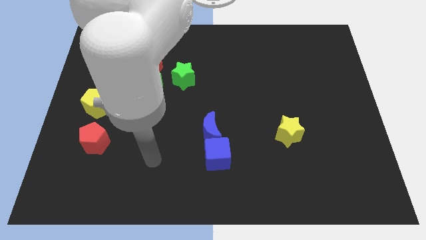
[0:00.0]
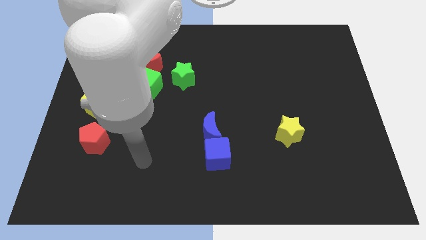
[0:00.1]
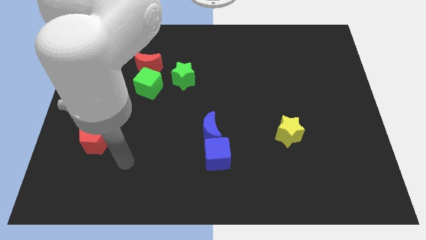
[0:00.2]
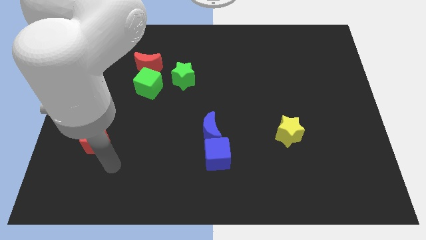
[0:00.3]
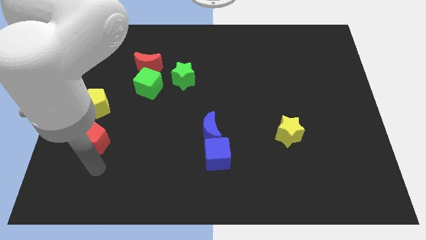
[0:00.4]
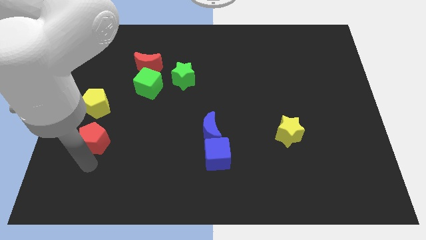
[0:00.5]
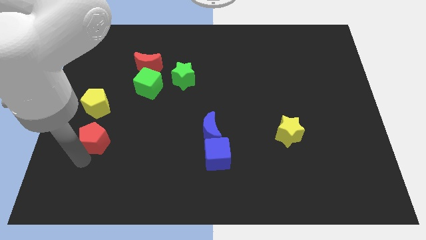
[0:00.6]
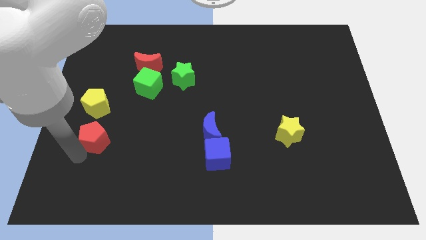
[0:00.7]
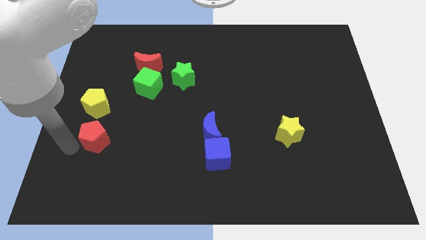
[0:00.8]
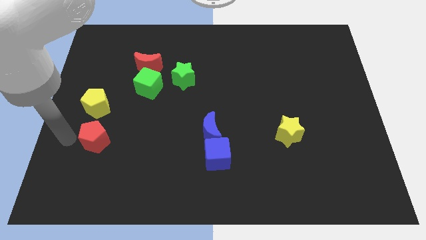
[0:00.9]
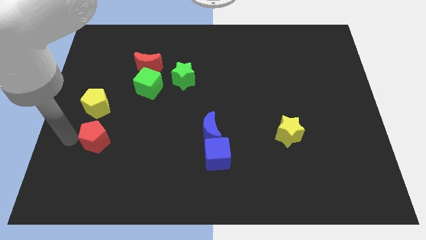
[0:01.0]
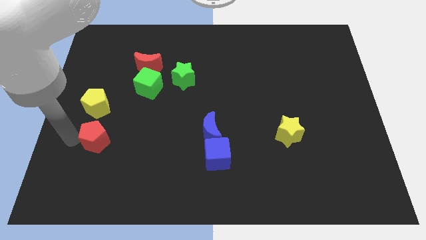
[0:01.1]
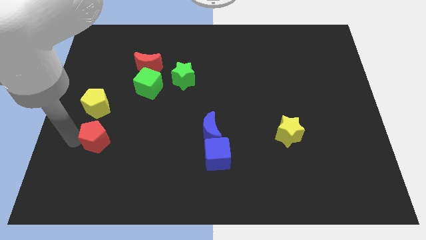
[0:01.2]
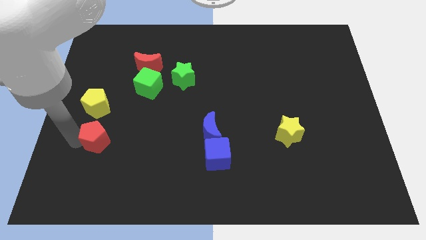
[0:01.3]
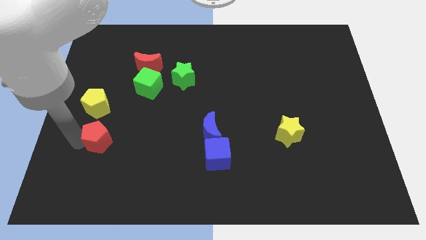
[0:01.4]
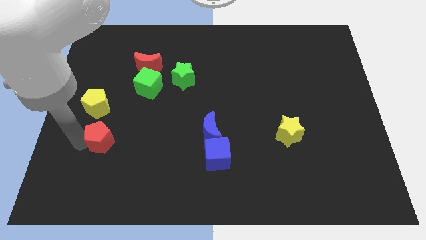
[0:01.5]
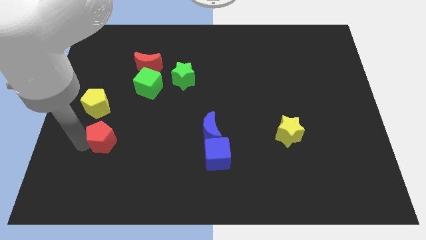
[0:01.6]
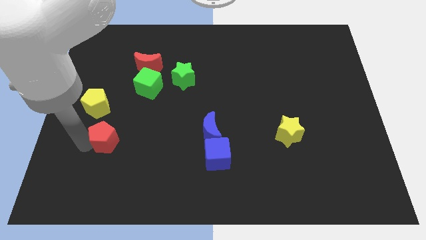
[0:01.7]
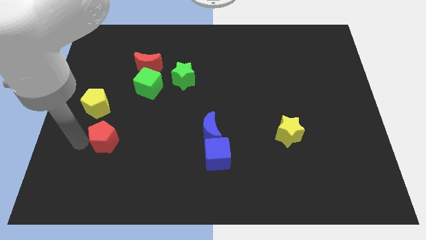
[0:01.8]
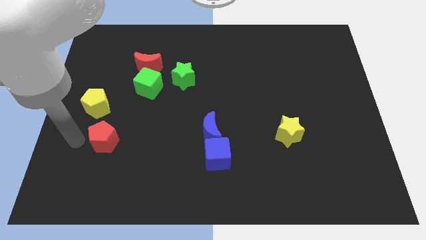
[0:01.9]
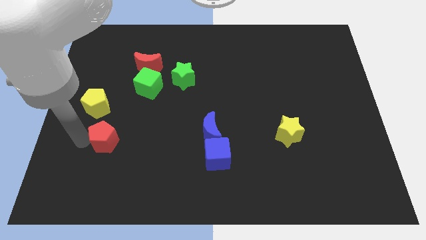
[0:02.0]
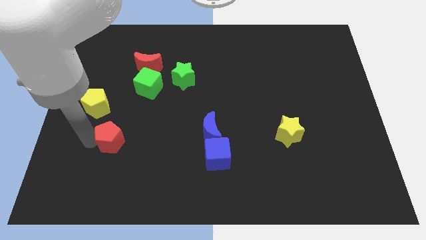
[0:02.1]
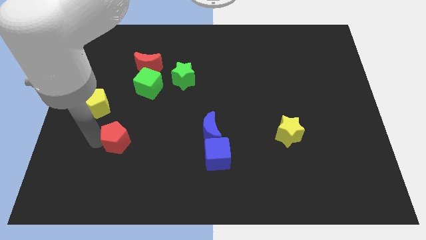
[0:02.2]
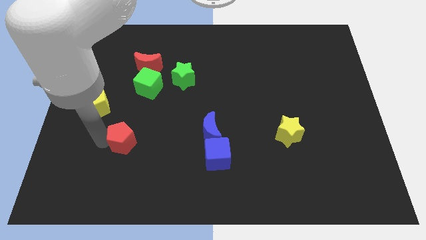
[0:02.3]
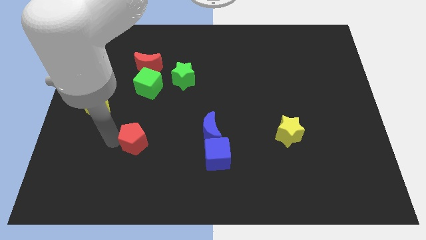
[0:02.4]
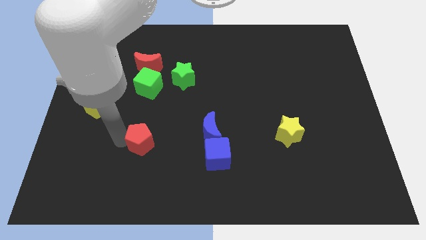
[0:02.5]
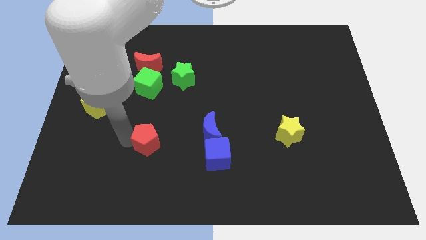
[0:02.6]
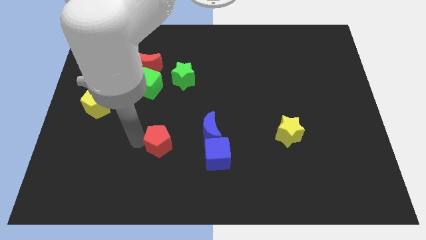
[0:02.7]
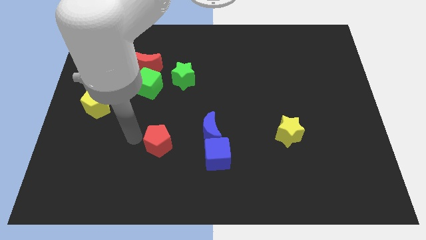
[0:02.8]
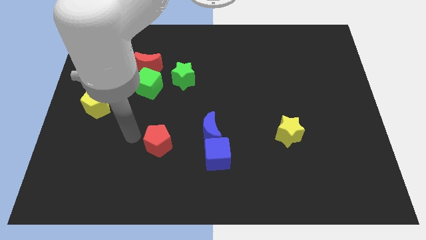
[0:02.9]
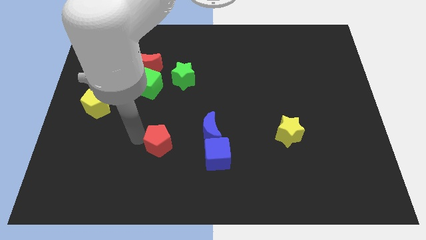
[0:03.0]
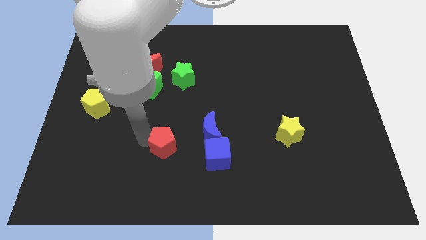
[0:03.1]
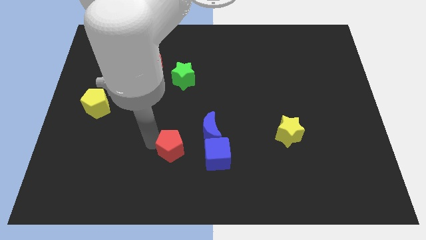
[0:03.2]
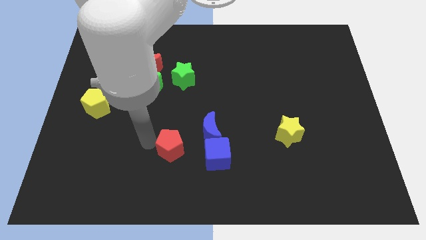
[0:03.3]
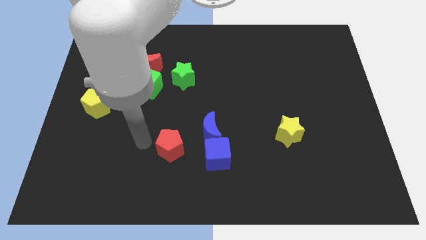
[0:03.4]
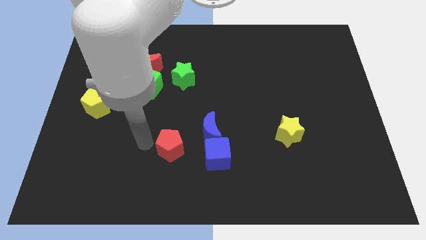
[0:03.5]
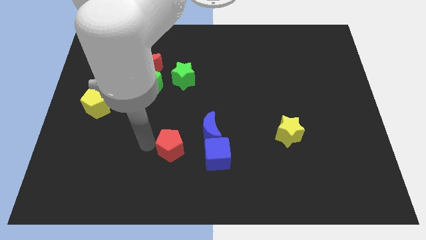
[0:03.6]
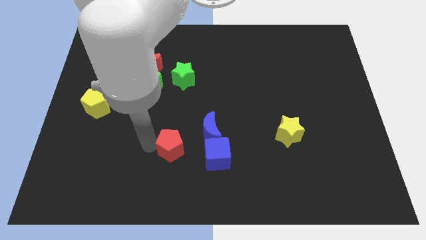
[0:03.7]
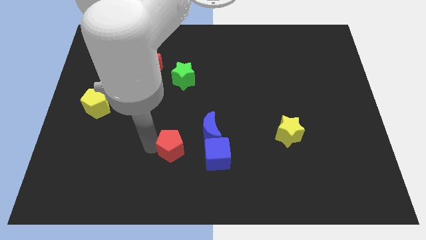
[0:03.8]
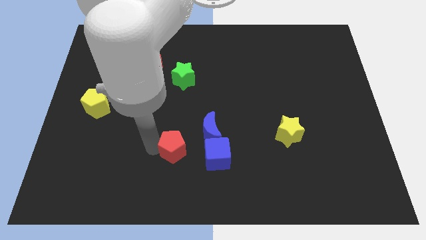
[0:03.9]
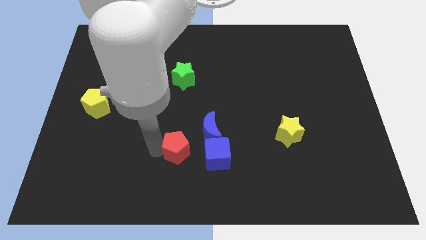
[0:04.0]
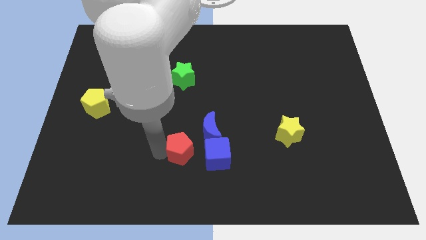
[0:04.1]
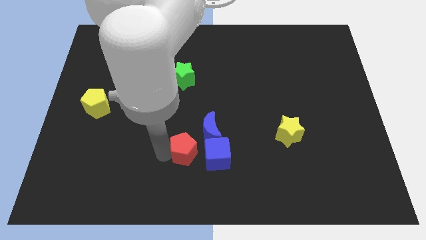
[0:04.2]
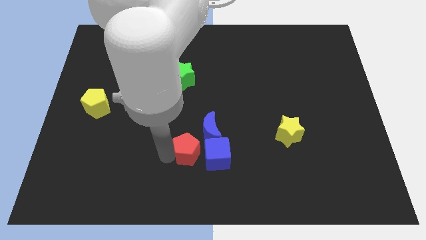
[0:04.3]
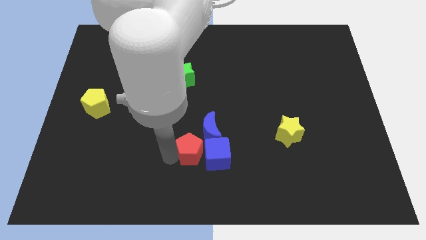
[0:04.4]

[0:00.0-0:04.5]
put the red pentagon next to the blue cube

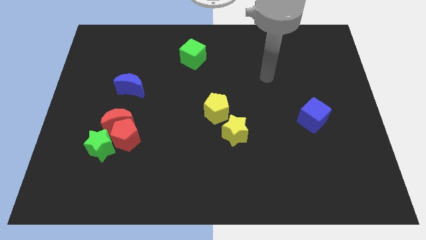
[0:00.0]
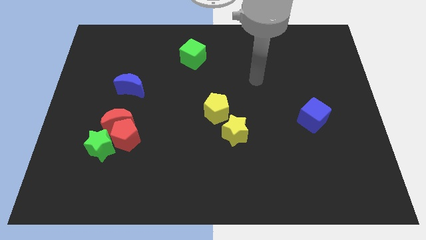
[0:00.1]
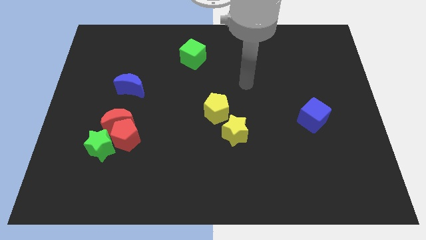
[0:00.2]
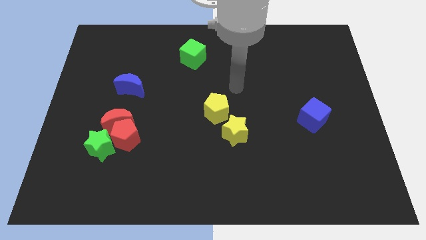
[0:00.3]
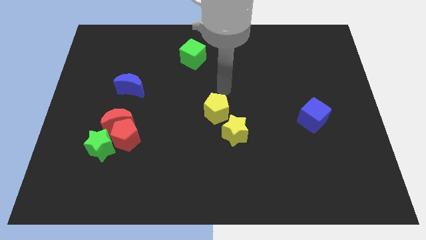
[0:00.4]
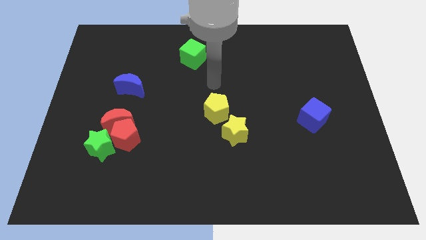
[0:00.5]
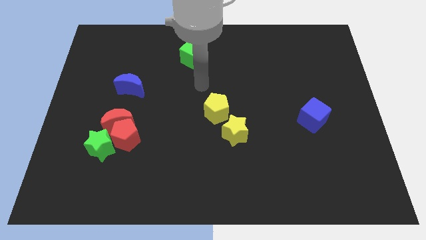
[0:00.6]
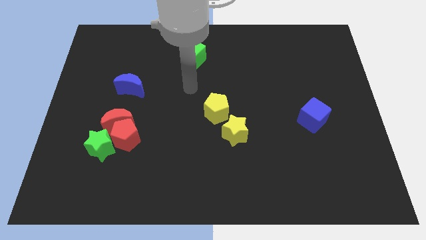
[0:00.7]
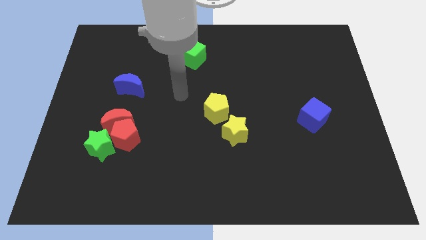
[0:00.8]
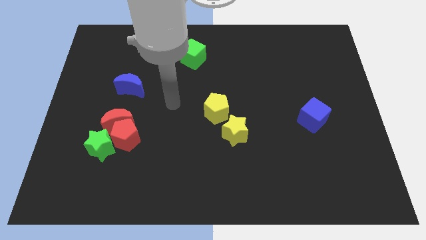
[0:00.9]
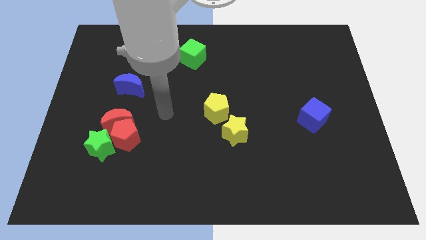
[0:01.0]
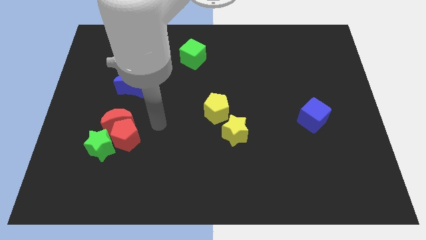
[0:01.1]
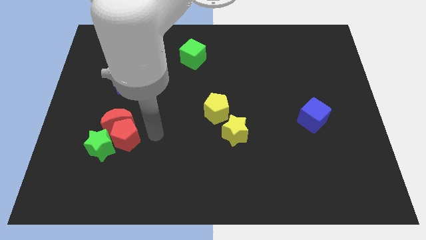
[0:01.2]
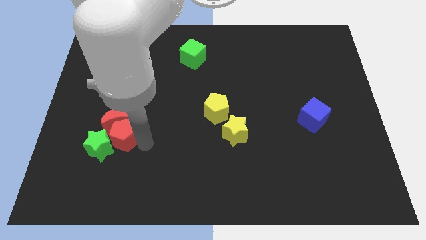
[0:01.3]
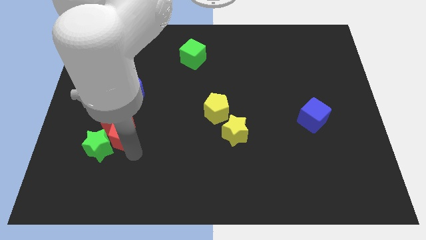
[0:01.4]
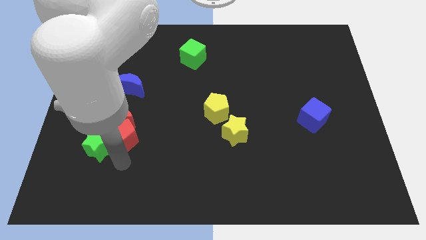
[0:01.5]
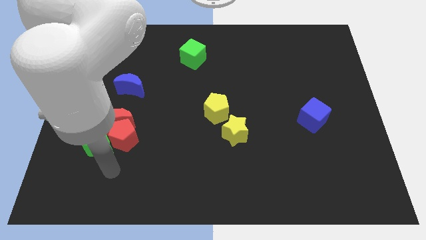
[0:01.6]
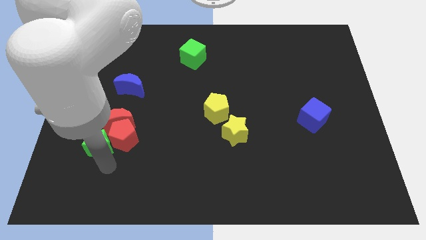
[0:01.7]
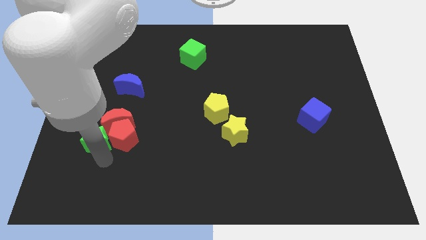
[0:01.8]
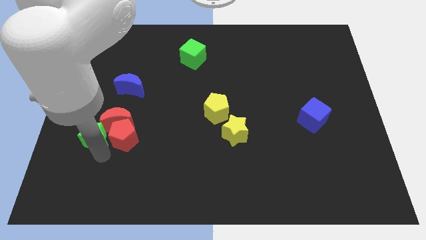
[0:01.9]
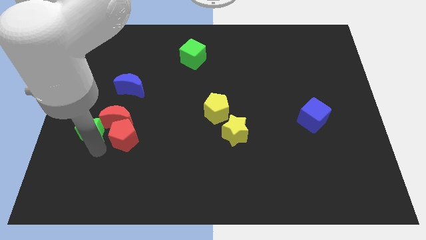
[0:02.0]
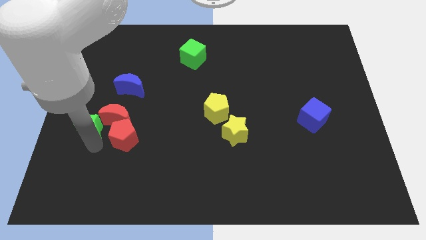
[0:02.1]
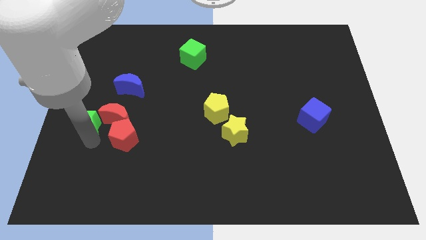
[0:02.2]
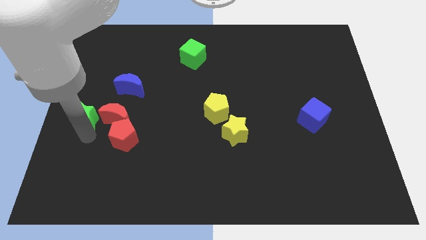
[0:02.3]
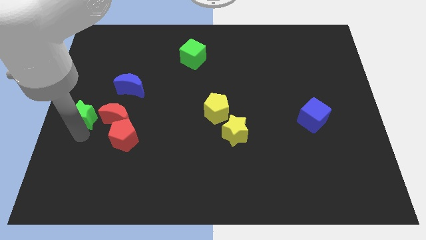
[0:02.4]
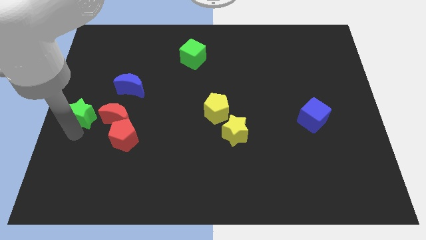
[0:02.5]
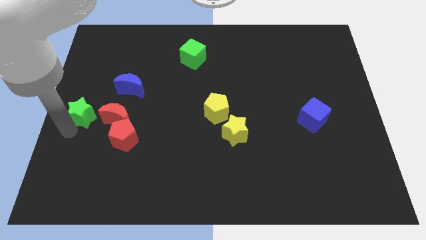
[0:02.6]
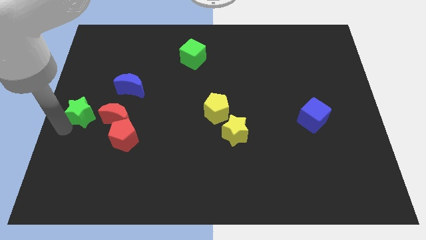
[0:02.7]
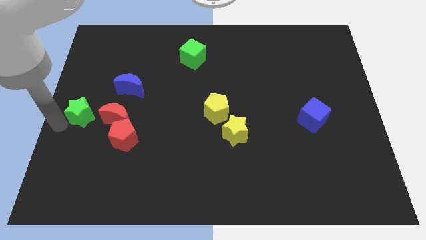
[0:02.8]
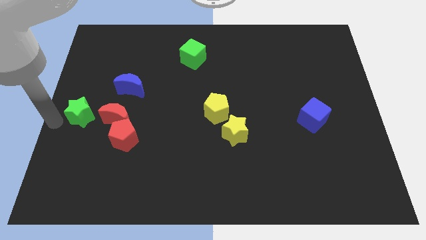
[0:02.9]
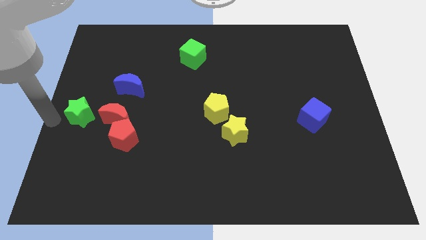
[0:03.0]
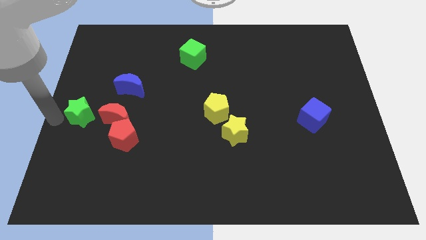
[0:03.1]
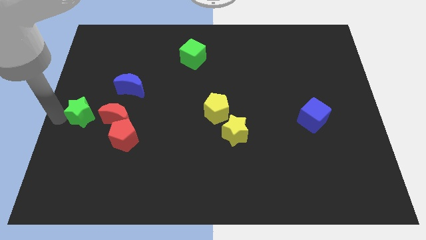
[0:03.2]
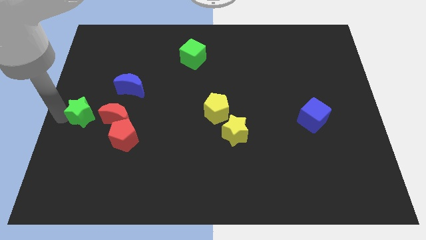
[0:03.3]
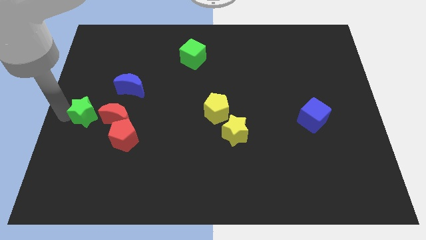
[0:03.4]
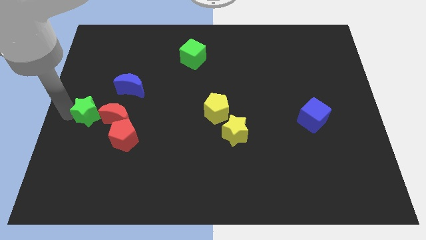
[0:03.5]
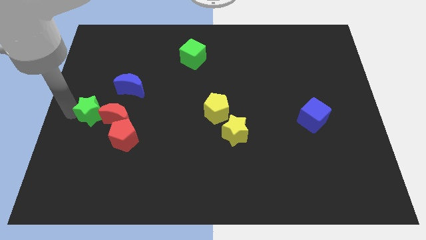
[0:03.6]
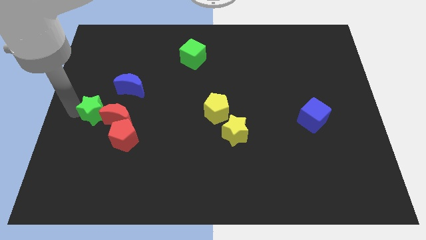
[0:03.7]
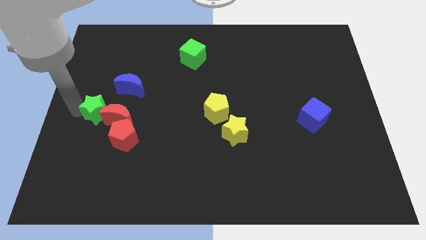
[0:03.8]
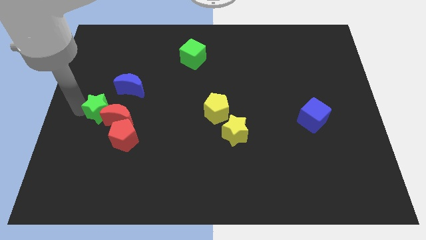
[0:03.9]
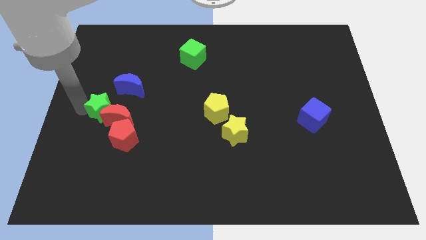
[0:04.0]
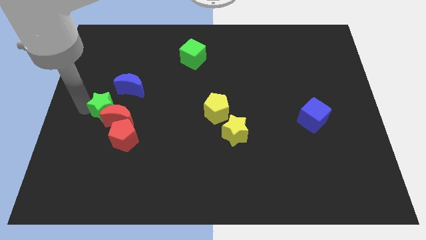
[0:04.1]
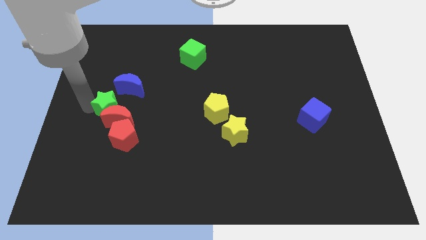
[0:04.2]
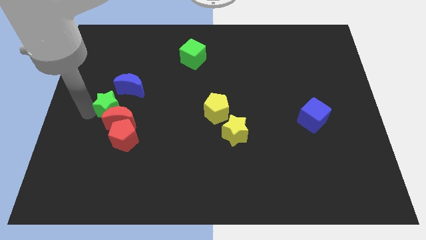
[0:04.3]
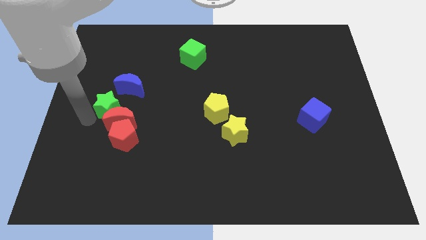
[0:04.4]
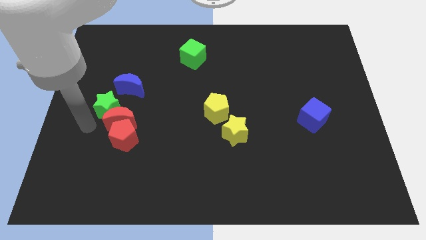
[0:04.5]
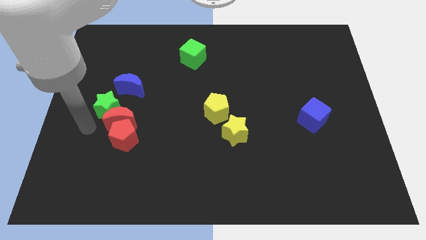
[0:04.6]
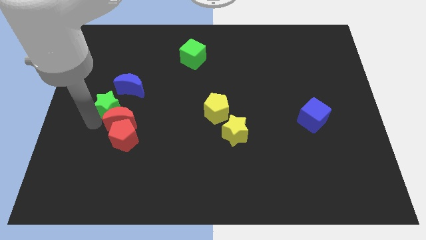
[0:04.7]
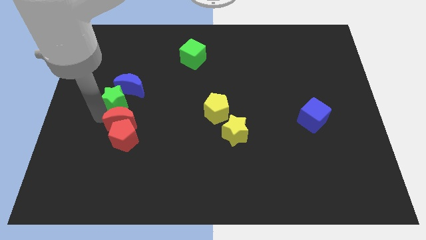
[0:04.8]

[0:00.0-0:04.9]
push the green star close to the blue moon
